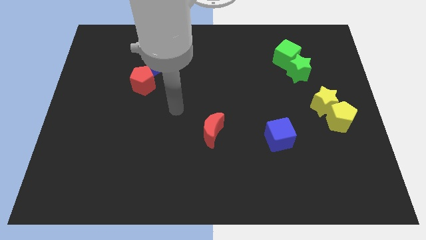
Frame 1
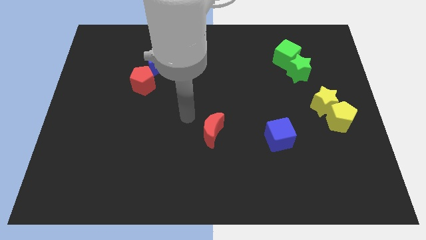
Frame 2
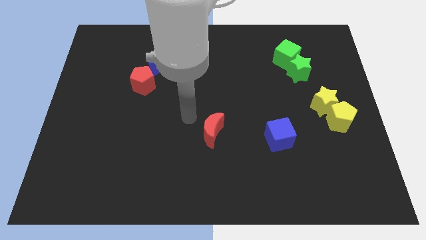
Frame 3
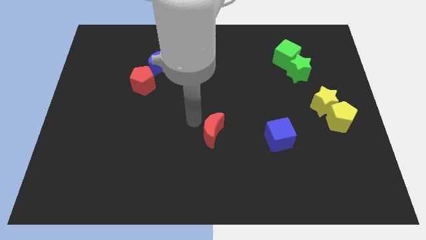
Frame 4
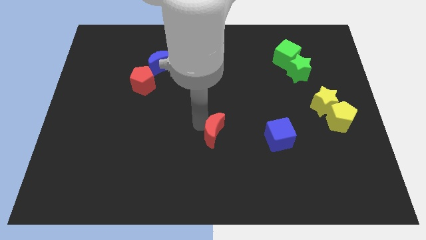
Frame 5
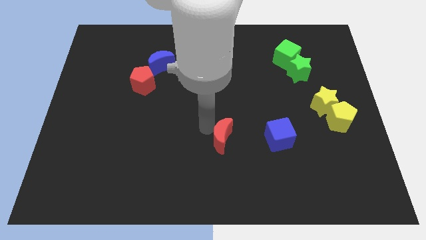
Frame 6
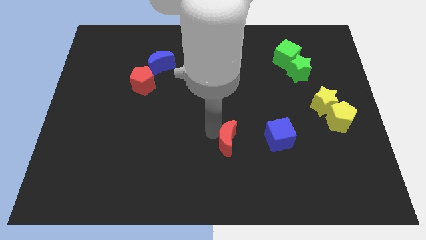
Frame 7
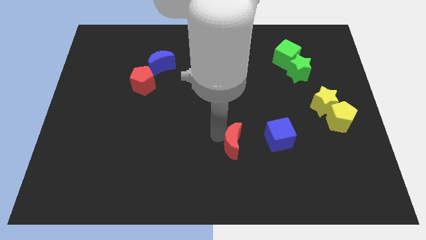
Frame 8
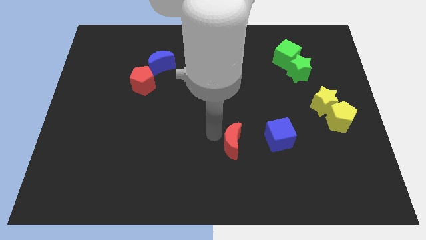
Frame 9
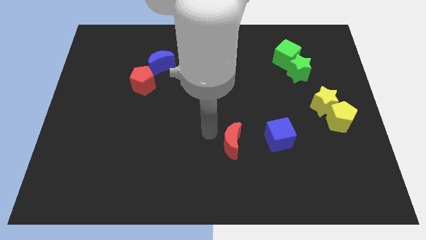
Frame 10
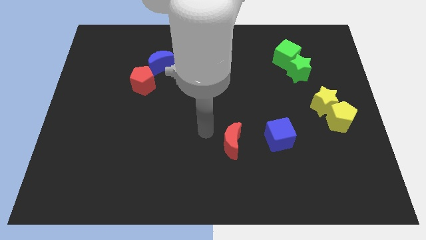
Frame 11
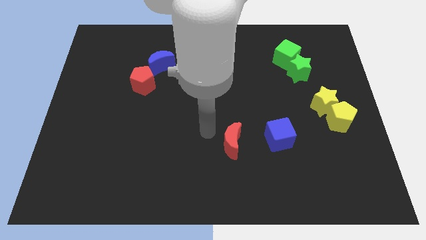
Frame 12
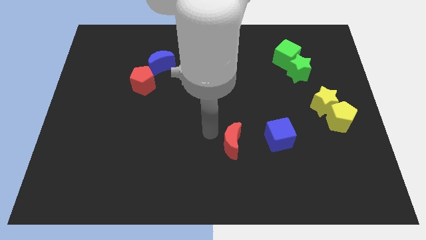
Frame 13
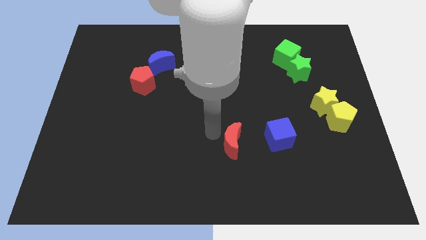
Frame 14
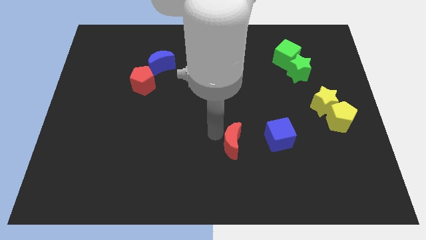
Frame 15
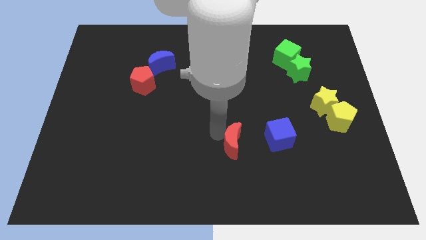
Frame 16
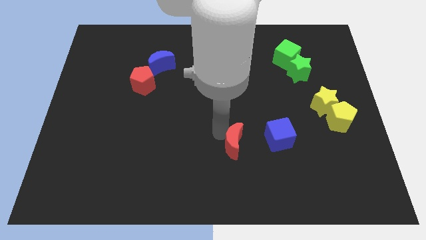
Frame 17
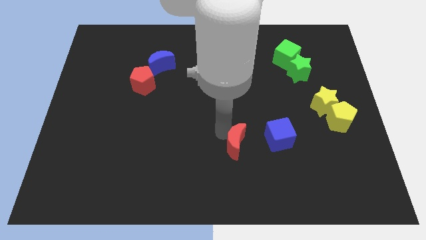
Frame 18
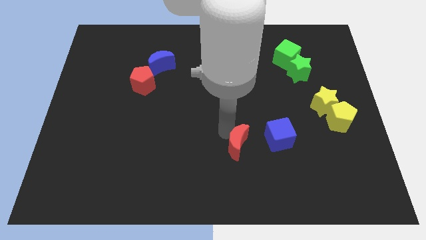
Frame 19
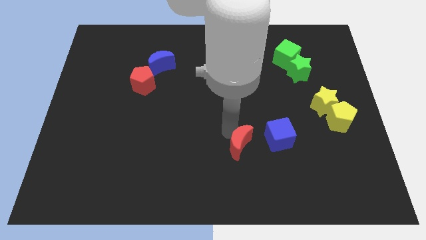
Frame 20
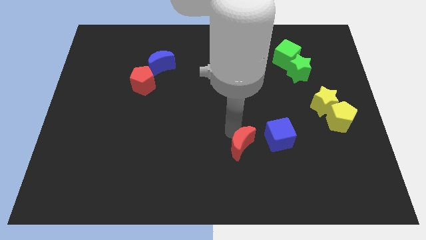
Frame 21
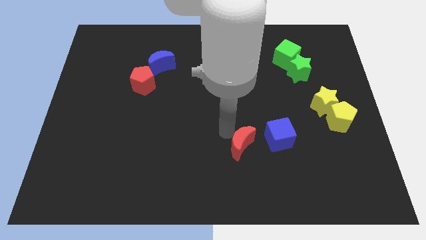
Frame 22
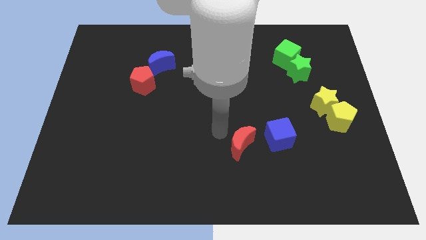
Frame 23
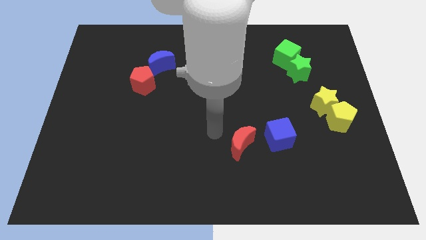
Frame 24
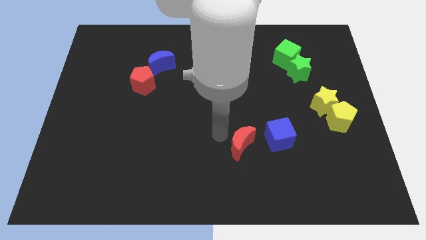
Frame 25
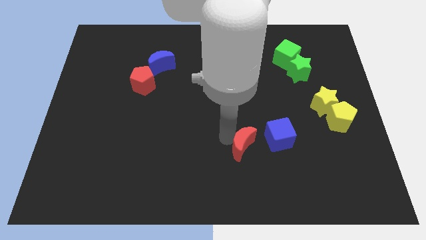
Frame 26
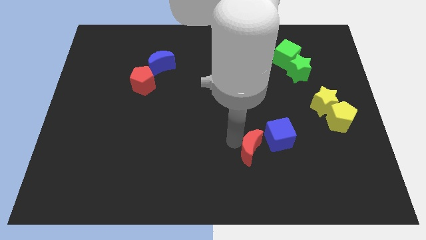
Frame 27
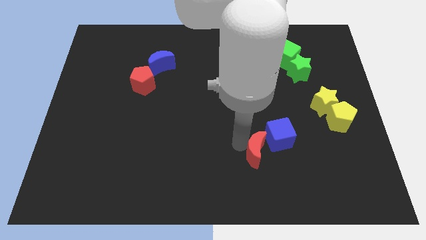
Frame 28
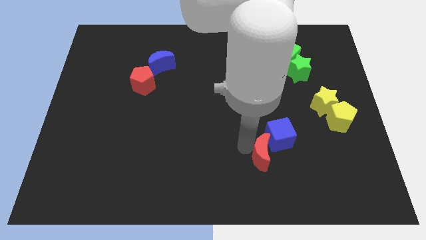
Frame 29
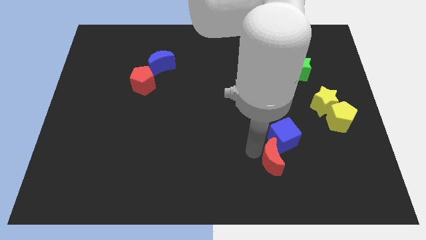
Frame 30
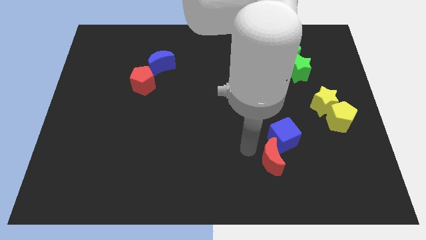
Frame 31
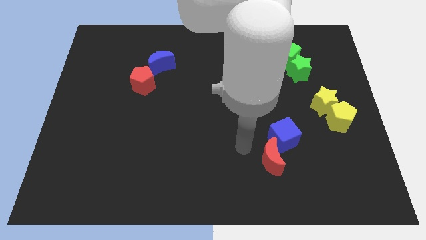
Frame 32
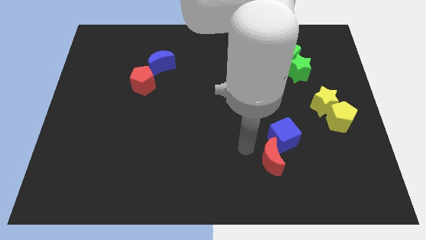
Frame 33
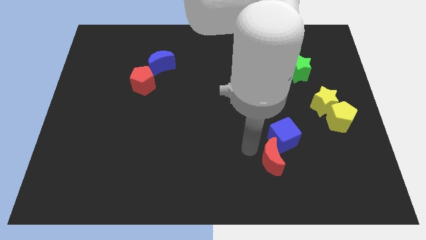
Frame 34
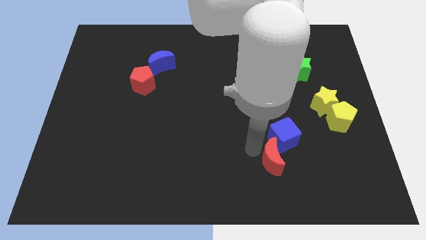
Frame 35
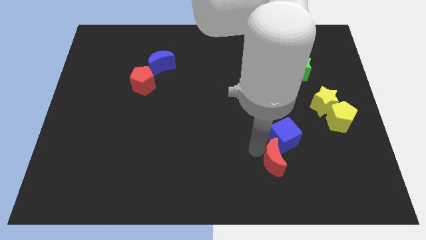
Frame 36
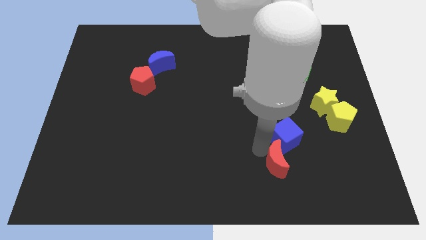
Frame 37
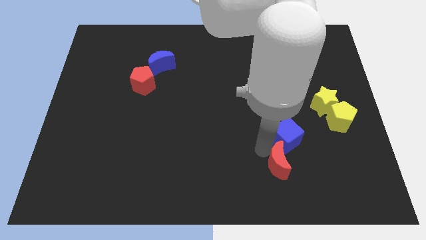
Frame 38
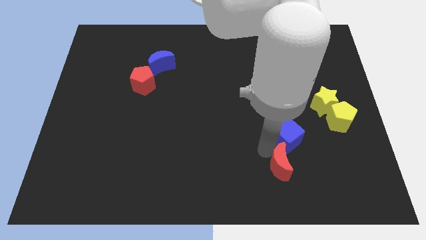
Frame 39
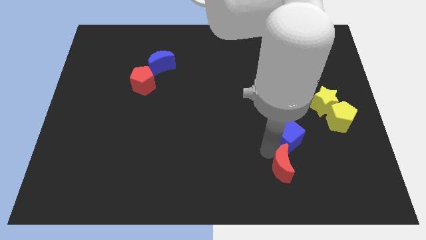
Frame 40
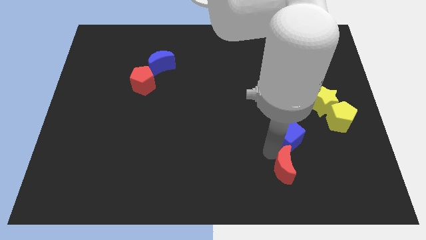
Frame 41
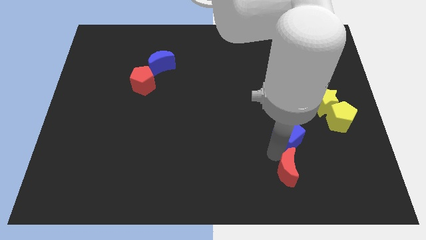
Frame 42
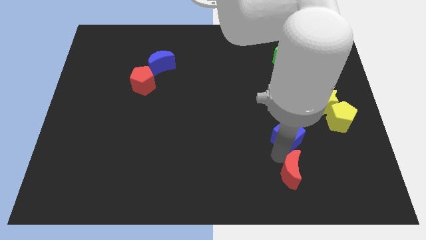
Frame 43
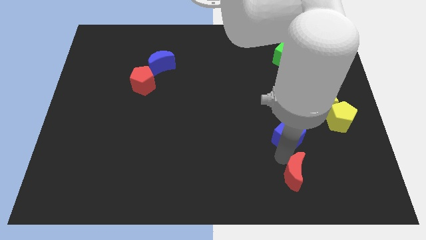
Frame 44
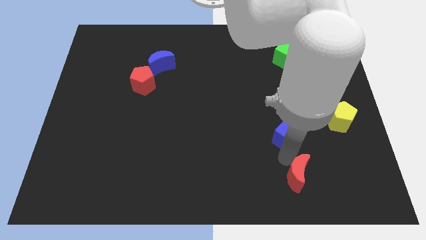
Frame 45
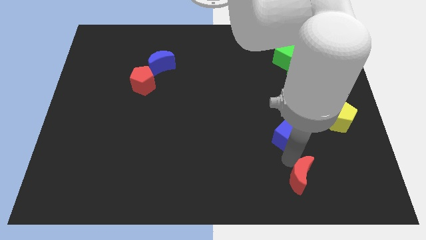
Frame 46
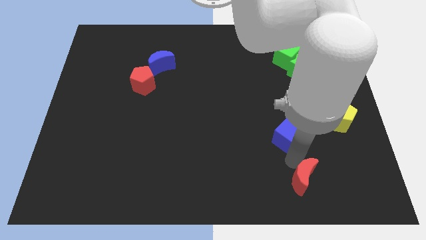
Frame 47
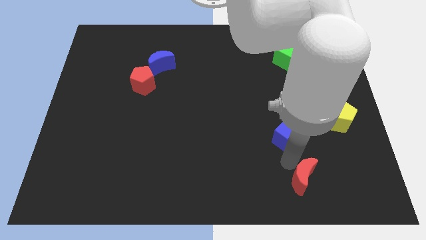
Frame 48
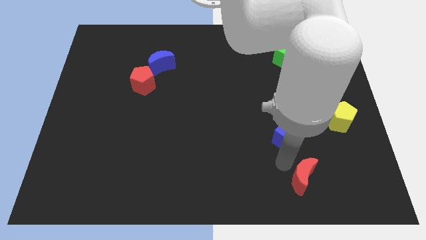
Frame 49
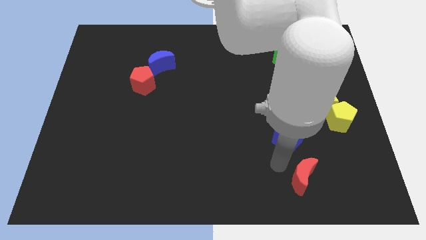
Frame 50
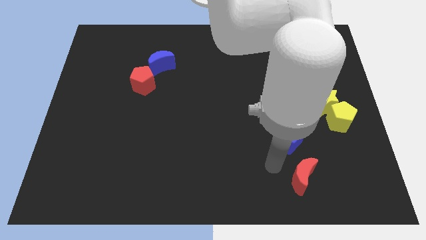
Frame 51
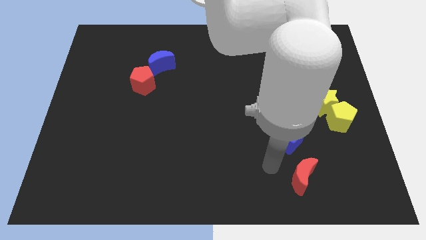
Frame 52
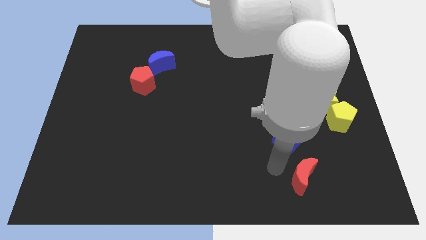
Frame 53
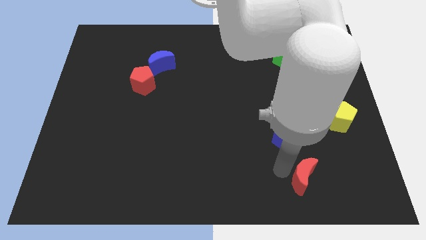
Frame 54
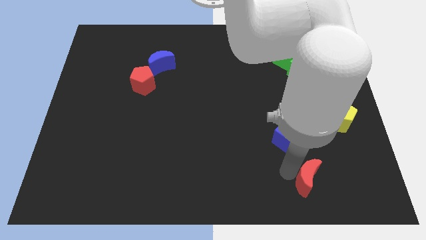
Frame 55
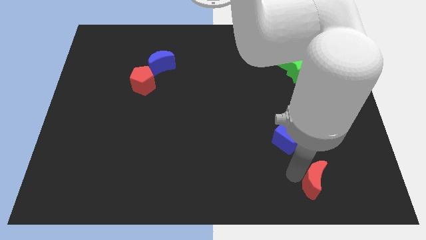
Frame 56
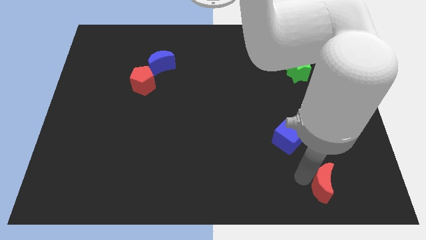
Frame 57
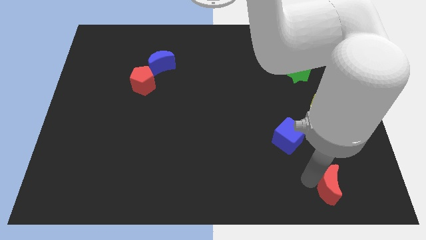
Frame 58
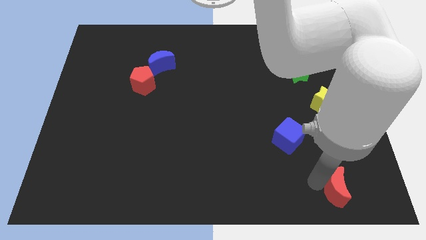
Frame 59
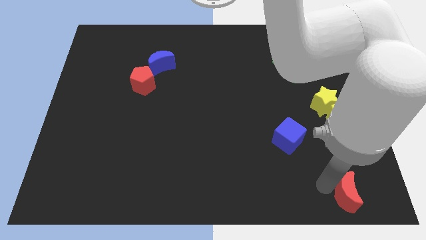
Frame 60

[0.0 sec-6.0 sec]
put the red moon to the bottom right corner
